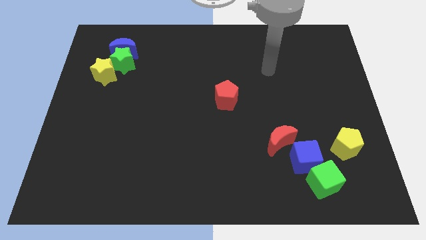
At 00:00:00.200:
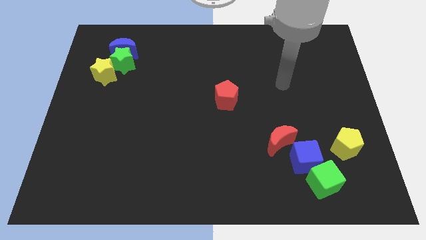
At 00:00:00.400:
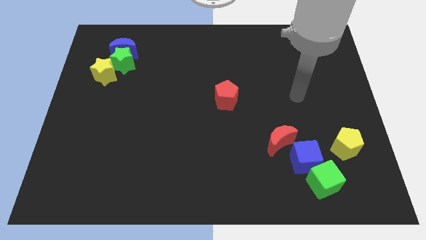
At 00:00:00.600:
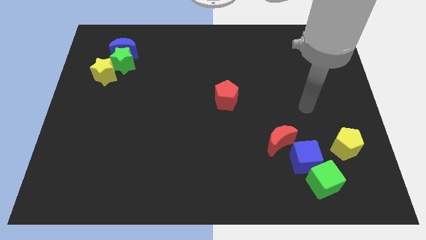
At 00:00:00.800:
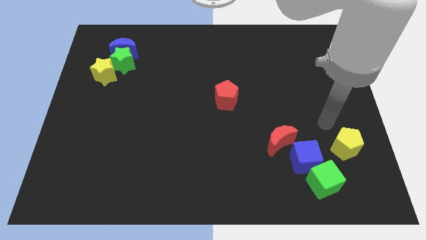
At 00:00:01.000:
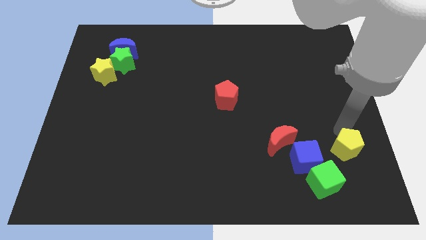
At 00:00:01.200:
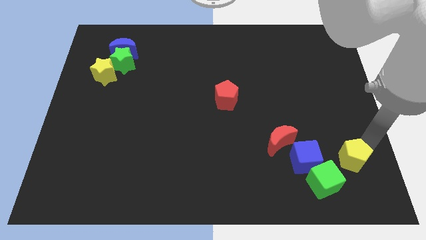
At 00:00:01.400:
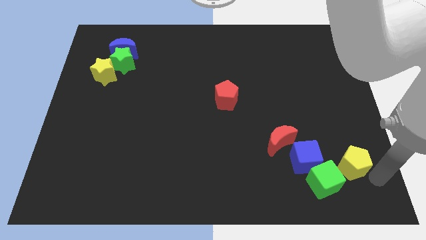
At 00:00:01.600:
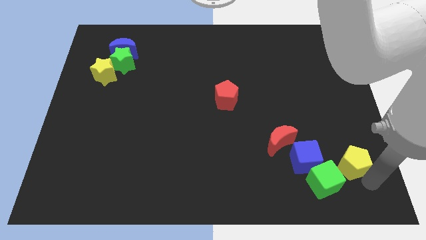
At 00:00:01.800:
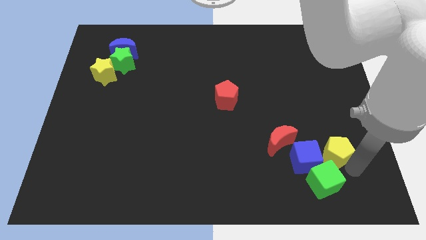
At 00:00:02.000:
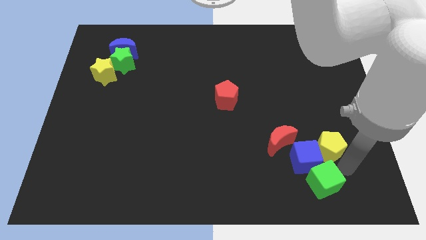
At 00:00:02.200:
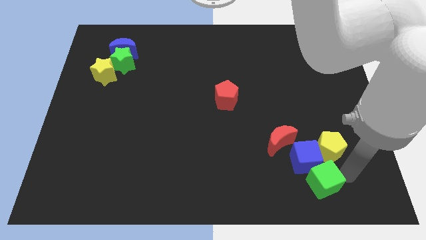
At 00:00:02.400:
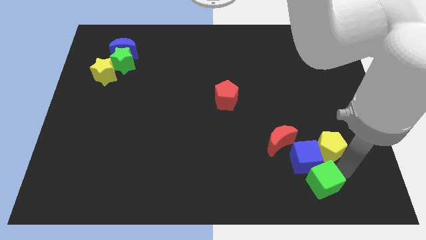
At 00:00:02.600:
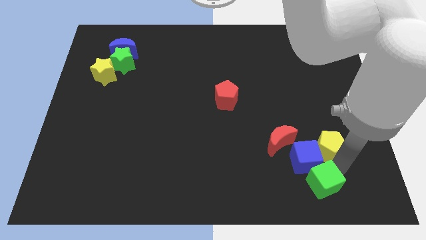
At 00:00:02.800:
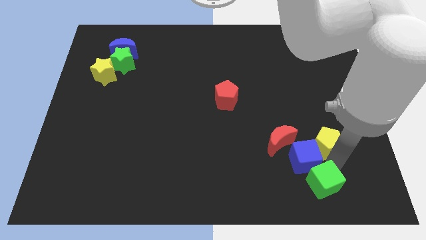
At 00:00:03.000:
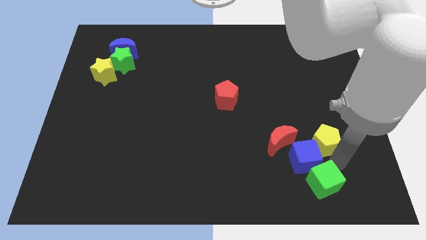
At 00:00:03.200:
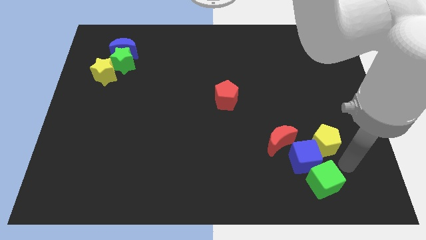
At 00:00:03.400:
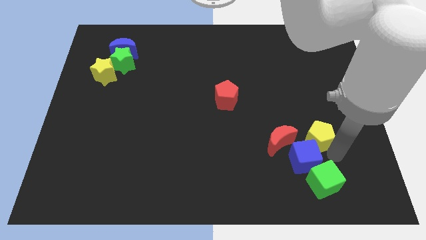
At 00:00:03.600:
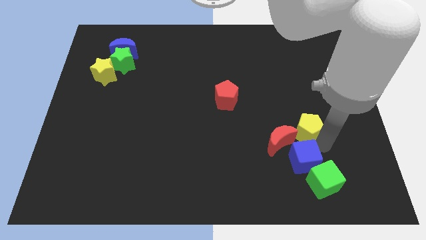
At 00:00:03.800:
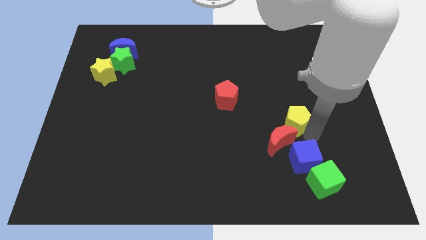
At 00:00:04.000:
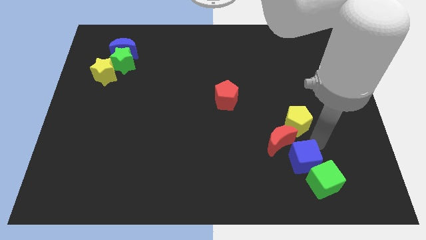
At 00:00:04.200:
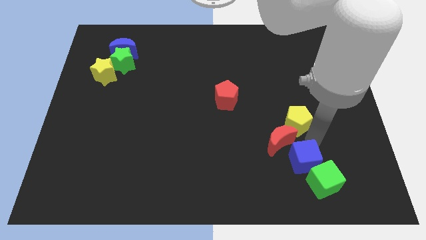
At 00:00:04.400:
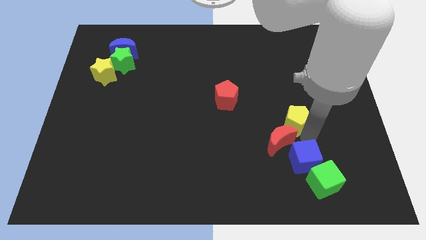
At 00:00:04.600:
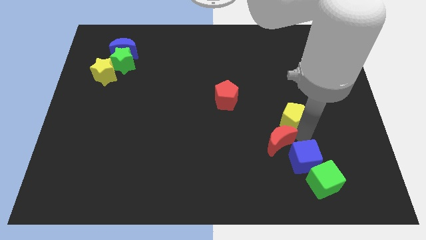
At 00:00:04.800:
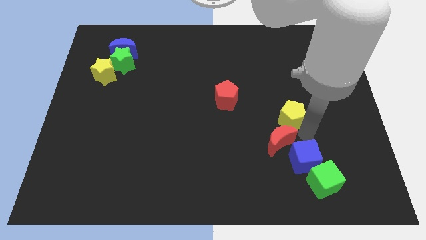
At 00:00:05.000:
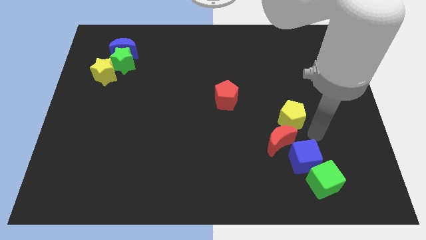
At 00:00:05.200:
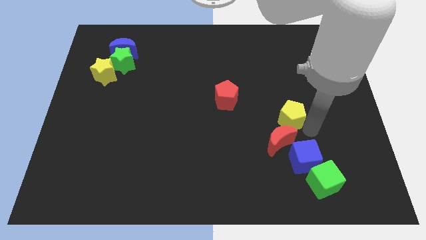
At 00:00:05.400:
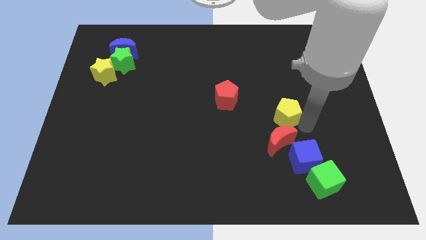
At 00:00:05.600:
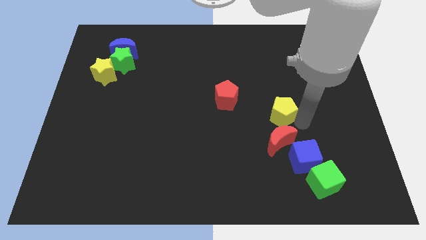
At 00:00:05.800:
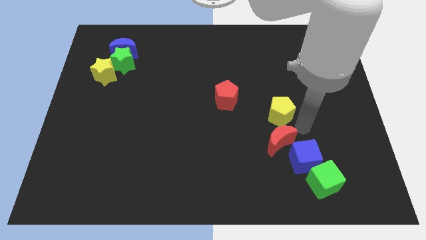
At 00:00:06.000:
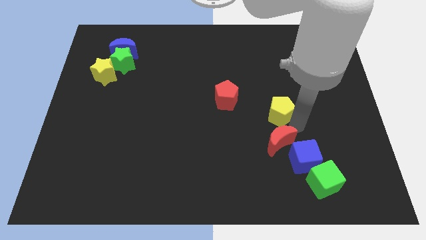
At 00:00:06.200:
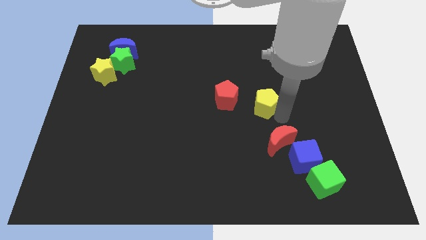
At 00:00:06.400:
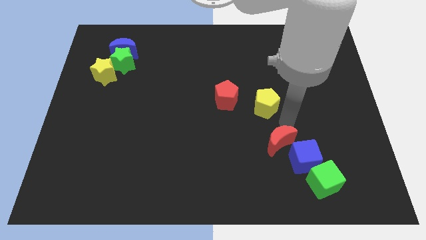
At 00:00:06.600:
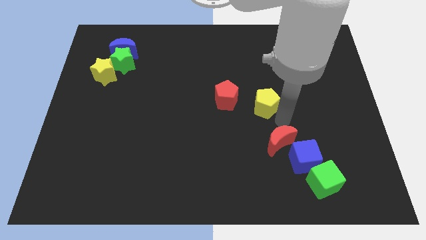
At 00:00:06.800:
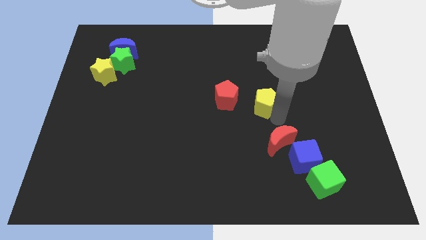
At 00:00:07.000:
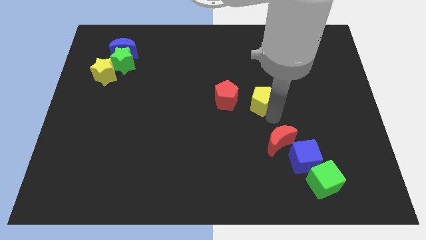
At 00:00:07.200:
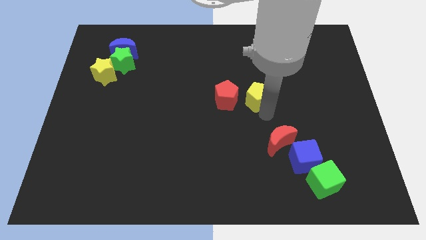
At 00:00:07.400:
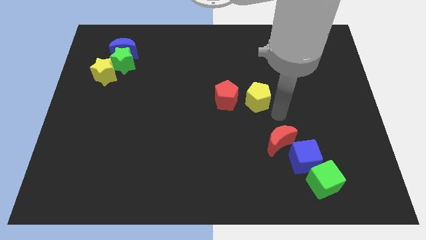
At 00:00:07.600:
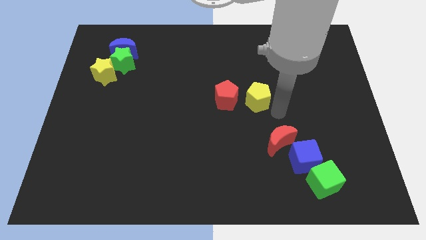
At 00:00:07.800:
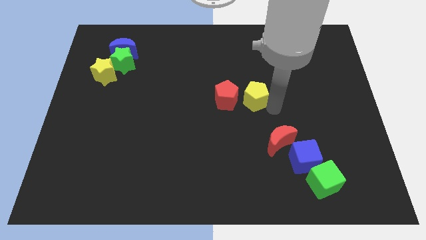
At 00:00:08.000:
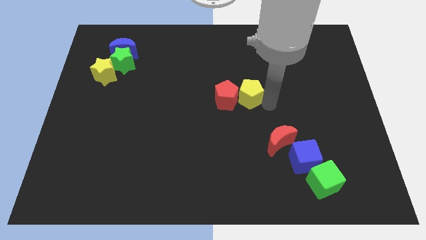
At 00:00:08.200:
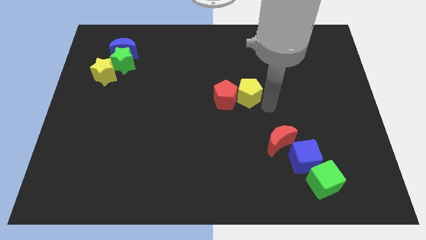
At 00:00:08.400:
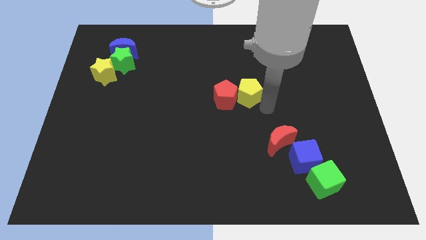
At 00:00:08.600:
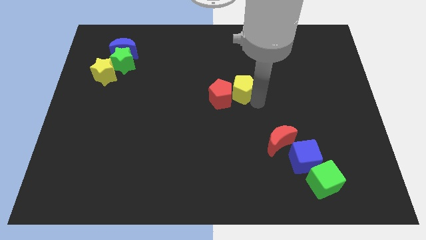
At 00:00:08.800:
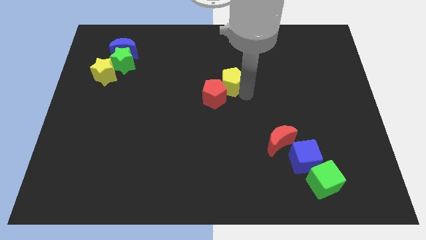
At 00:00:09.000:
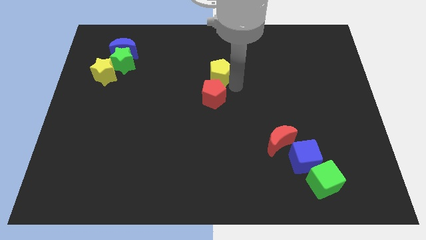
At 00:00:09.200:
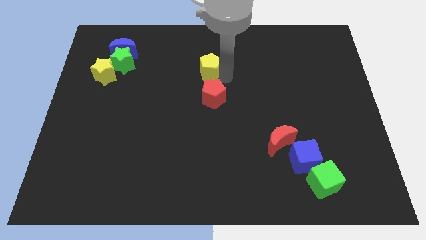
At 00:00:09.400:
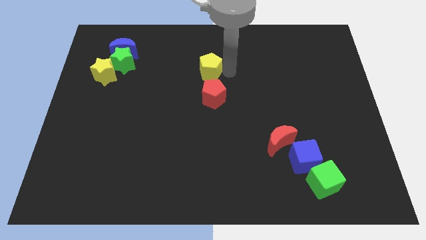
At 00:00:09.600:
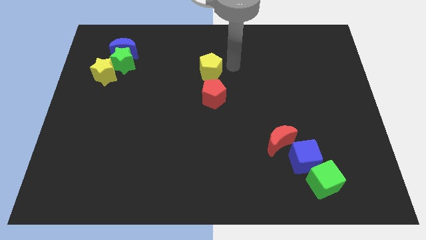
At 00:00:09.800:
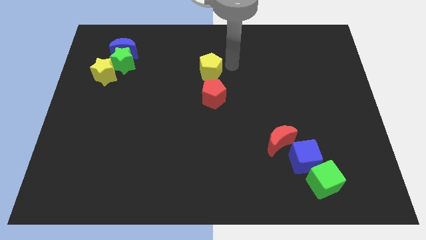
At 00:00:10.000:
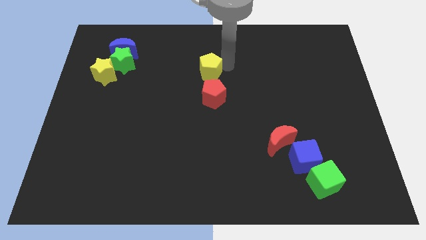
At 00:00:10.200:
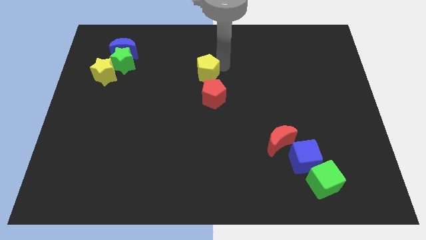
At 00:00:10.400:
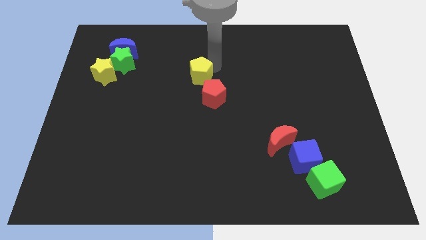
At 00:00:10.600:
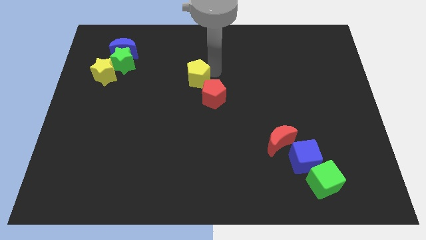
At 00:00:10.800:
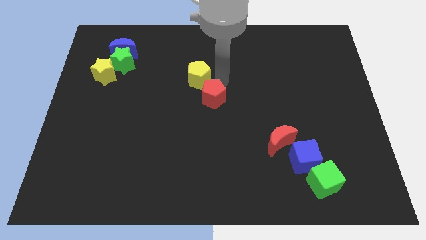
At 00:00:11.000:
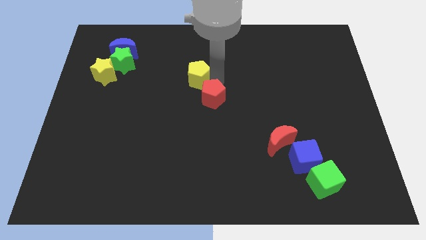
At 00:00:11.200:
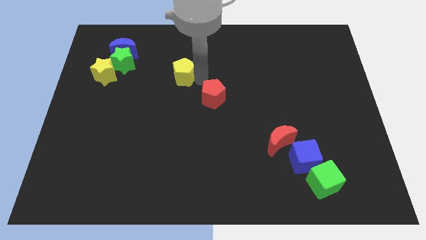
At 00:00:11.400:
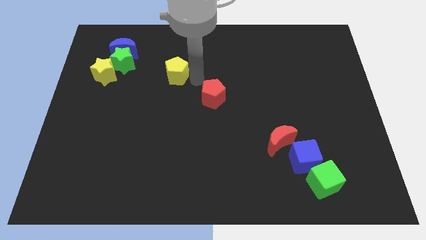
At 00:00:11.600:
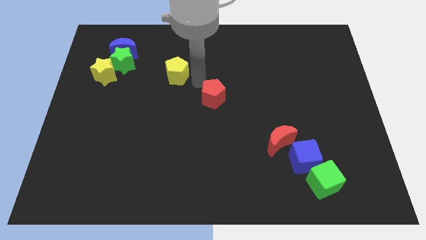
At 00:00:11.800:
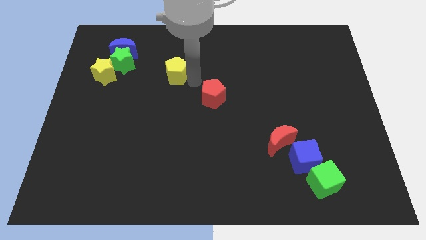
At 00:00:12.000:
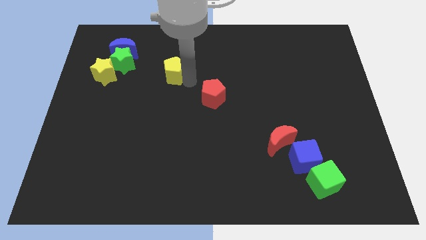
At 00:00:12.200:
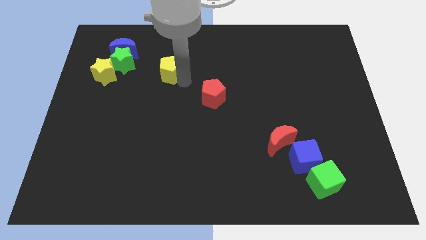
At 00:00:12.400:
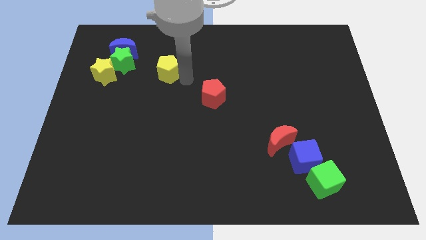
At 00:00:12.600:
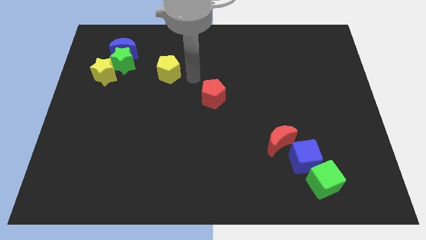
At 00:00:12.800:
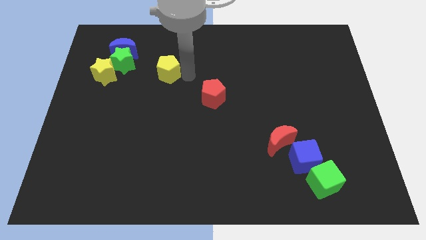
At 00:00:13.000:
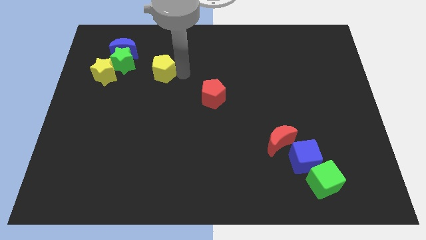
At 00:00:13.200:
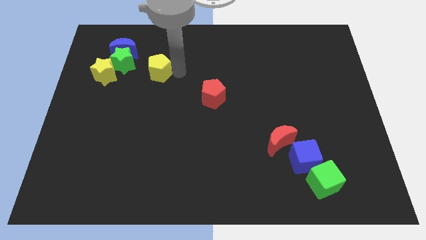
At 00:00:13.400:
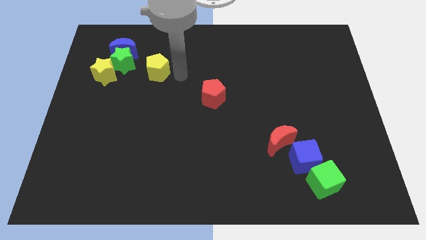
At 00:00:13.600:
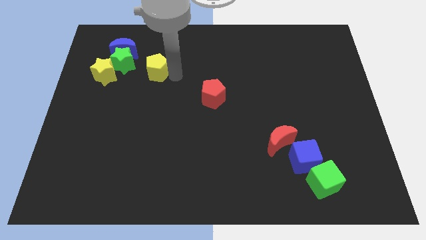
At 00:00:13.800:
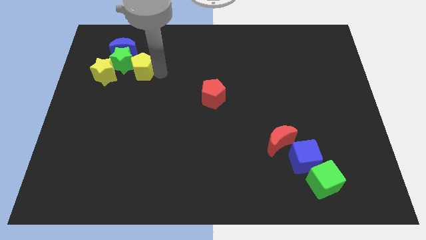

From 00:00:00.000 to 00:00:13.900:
push the yellow pentagon to the green star
